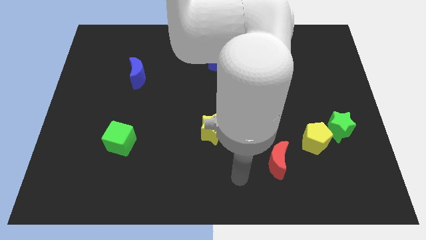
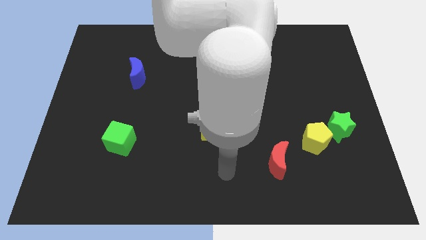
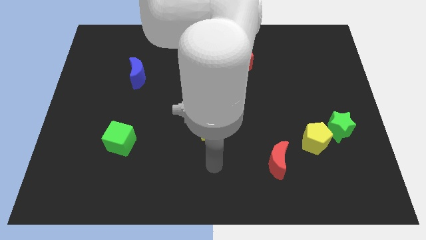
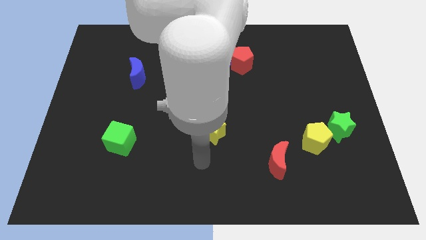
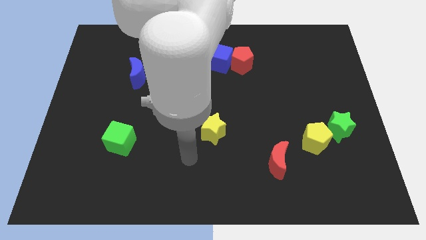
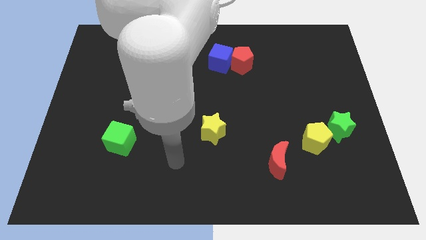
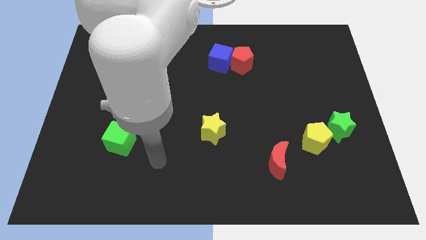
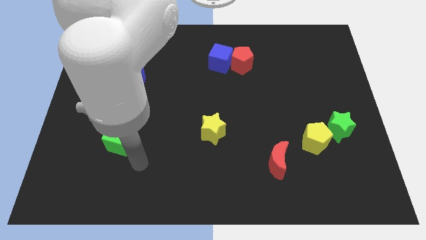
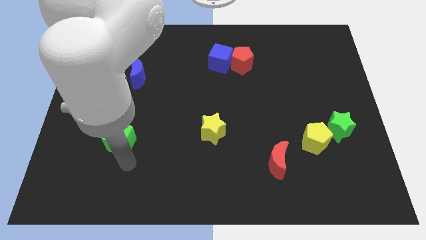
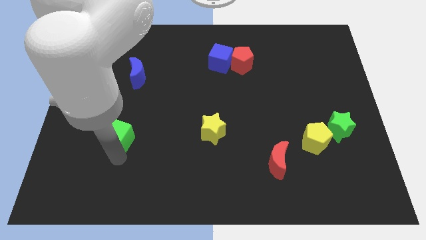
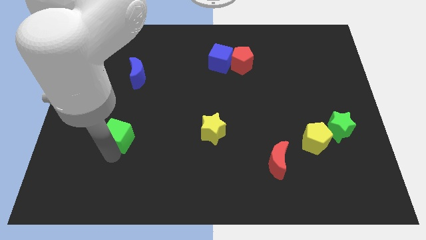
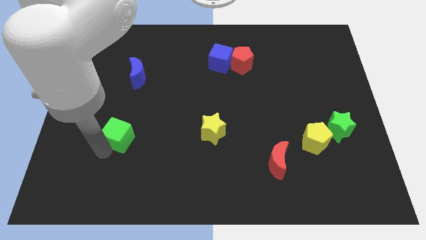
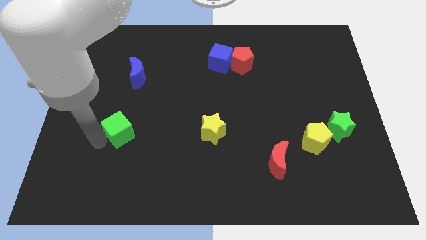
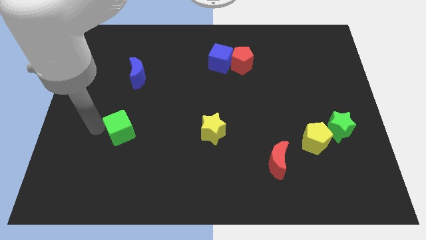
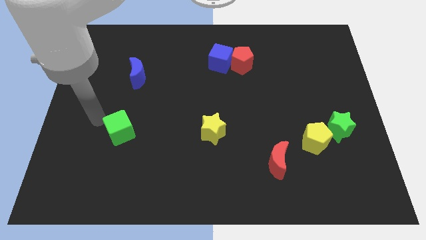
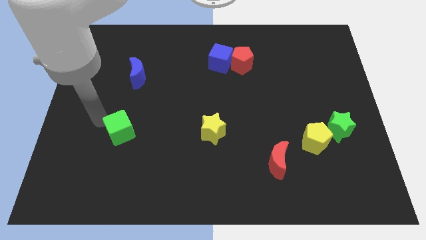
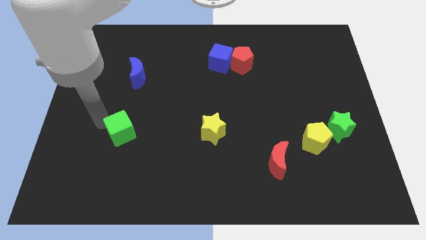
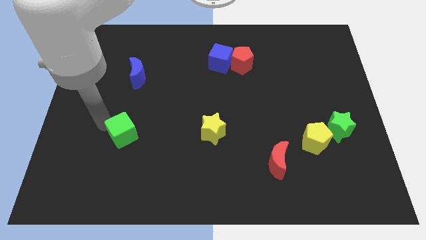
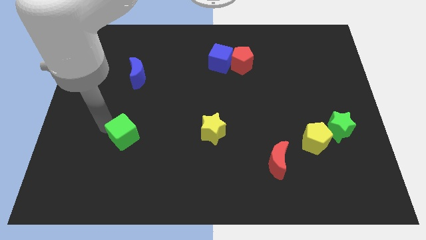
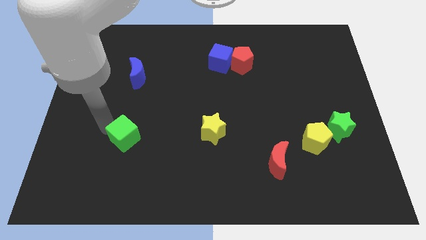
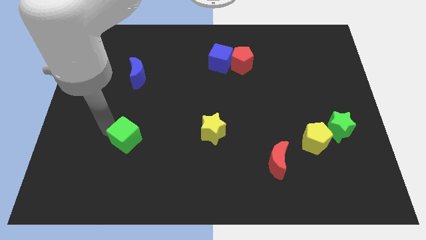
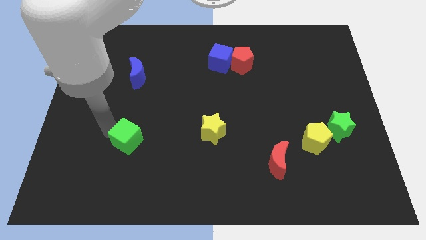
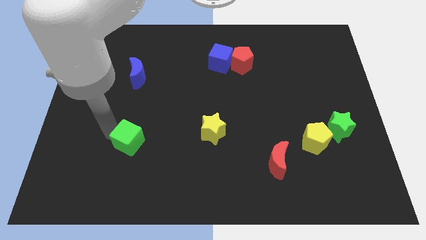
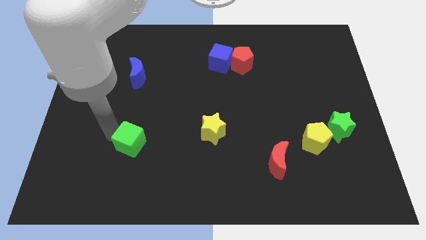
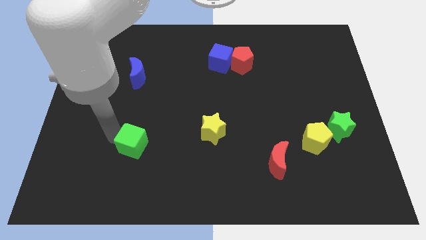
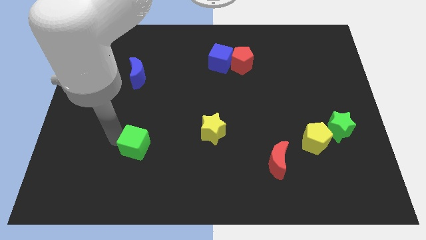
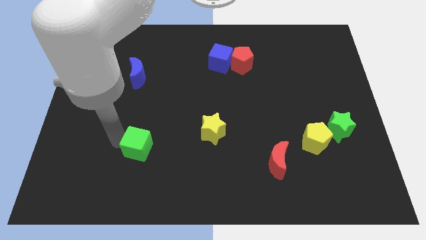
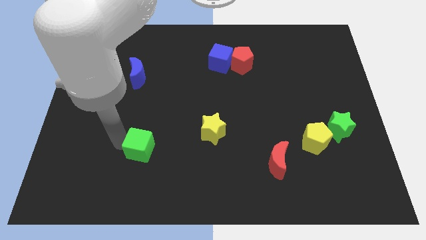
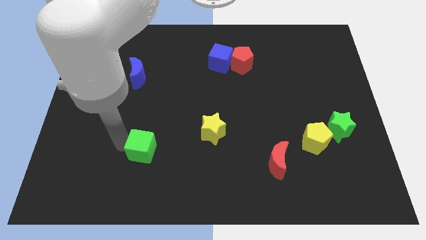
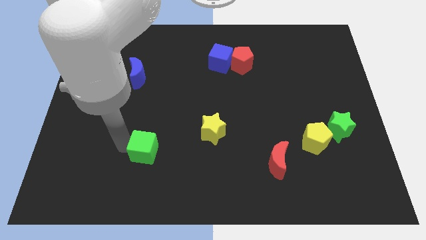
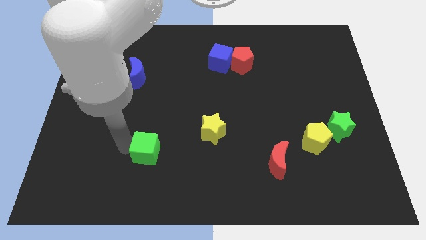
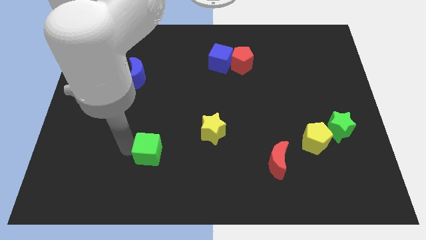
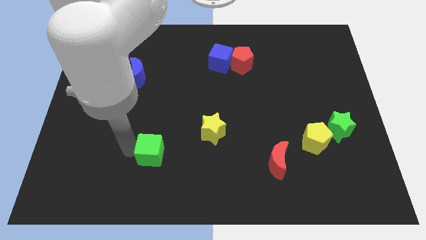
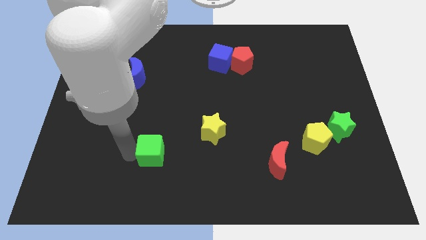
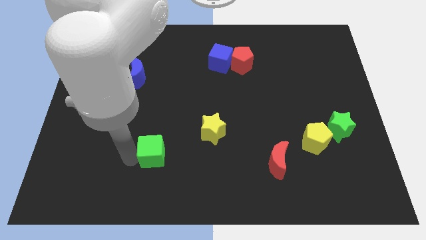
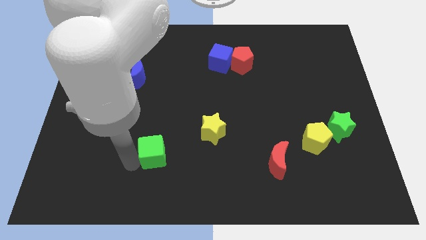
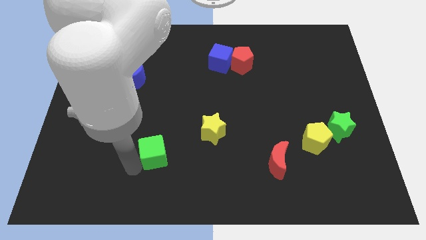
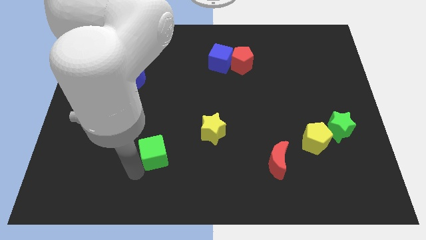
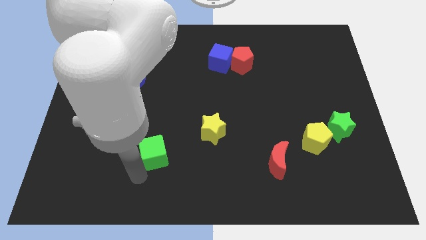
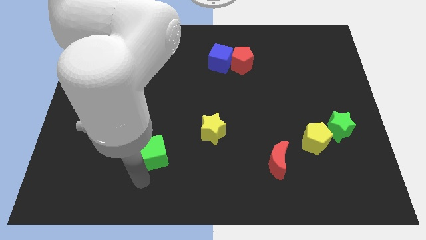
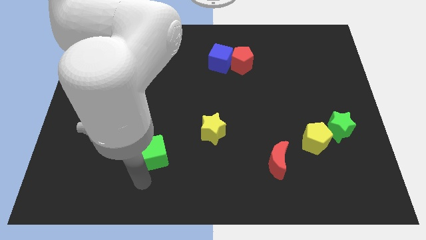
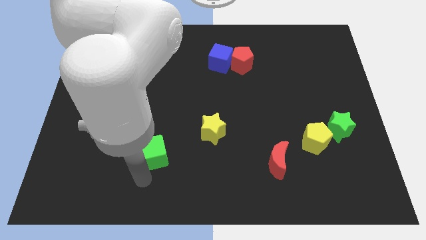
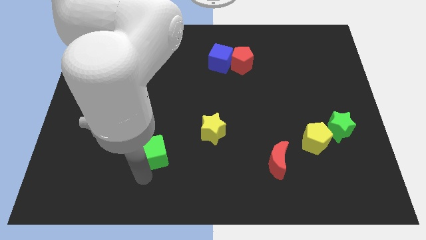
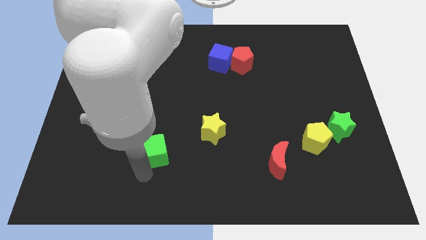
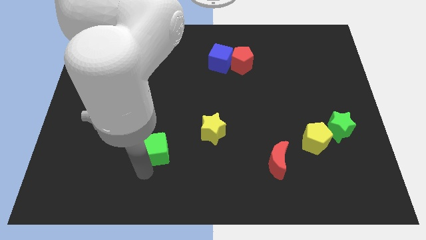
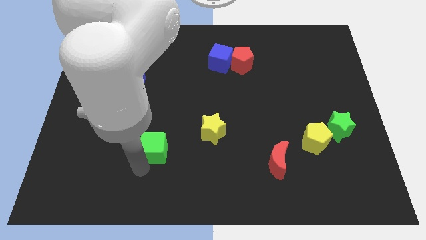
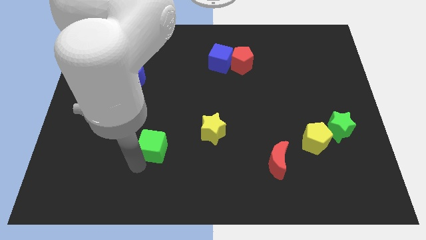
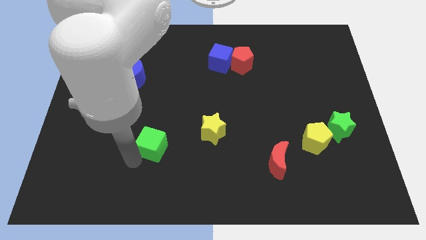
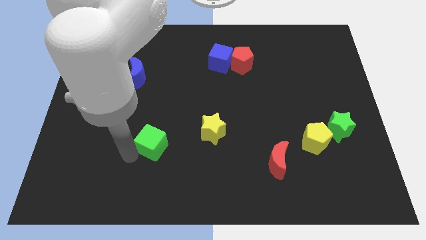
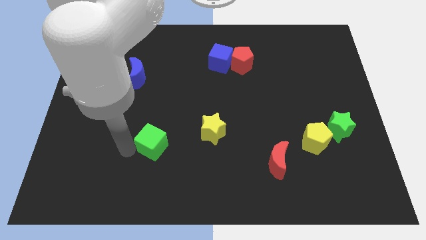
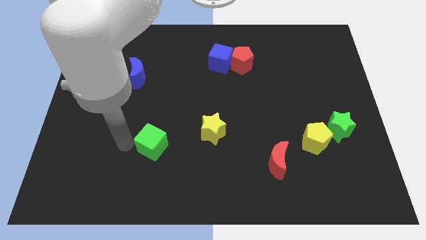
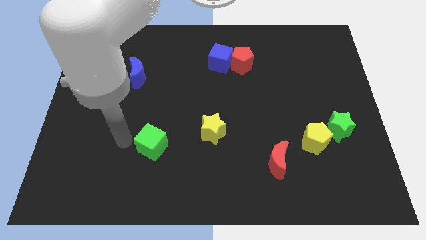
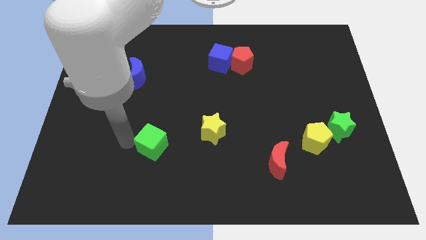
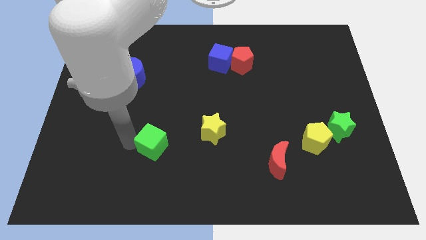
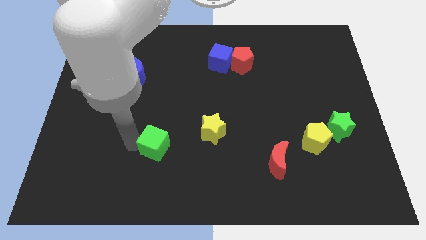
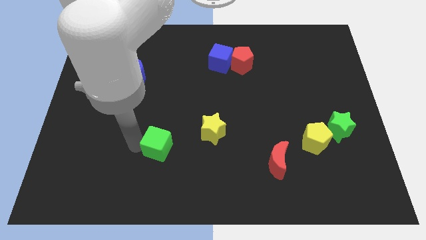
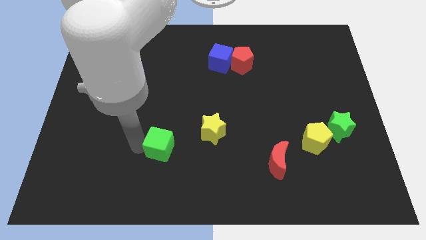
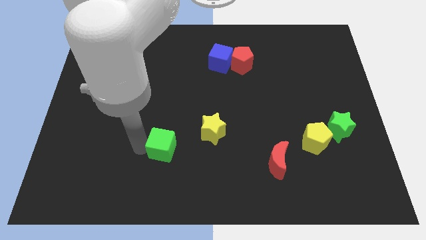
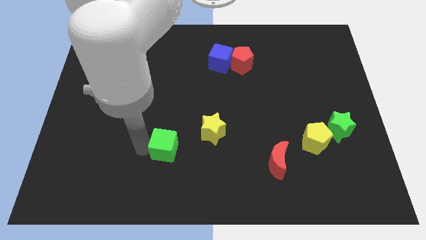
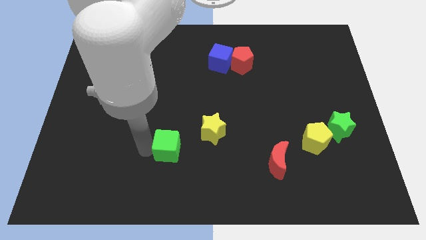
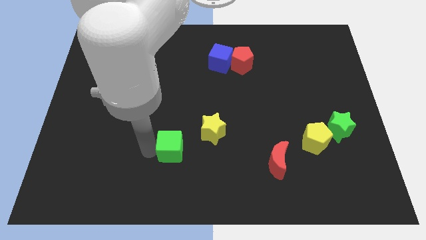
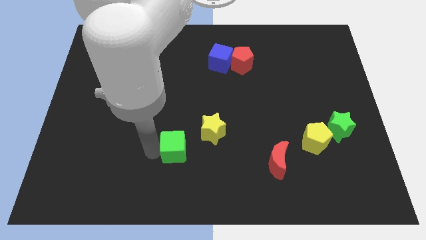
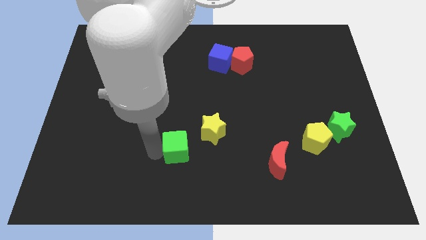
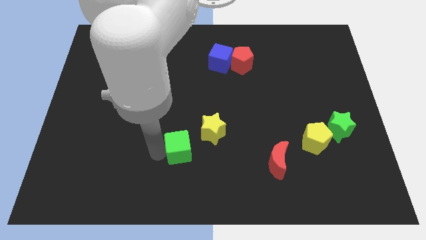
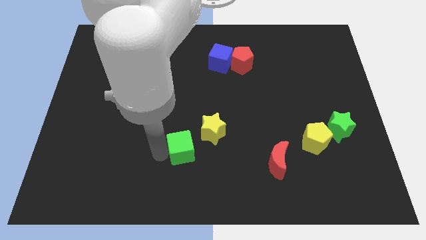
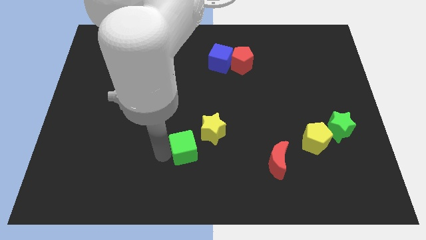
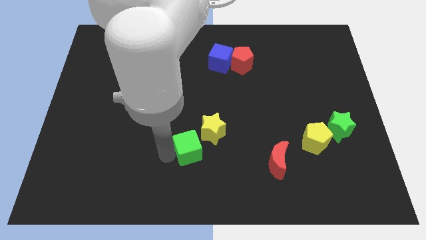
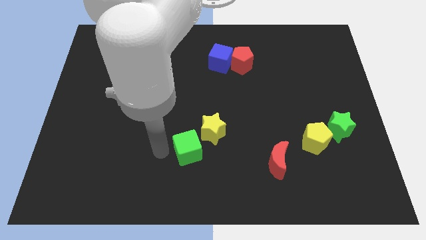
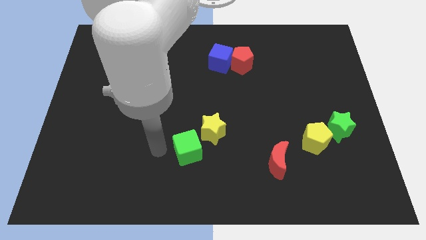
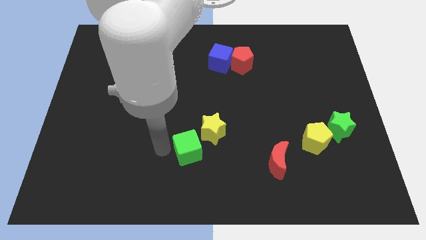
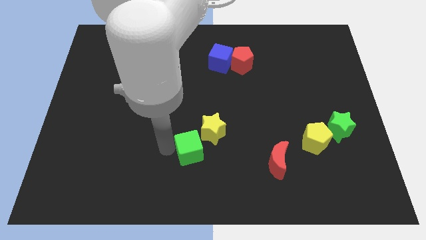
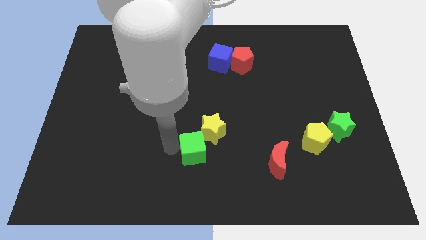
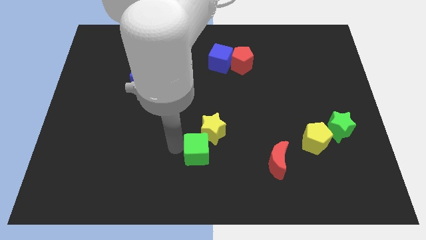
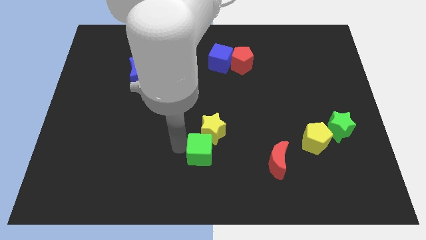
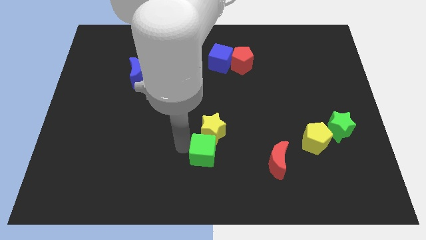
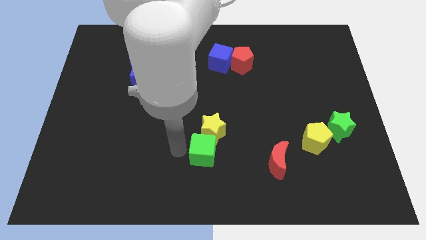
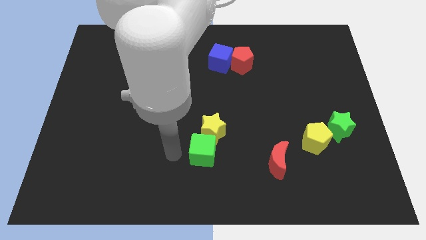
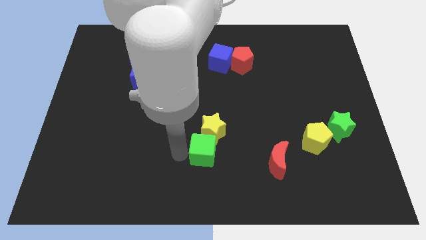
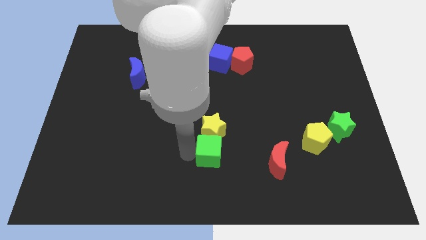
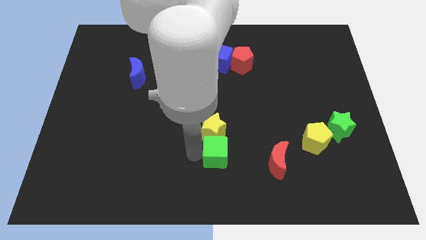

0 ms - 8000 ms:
slide the green cube right
